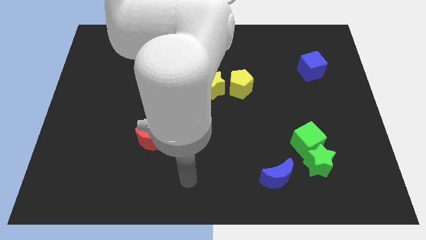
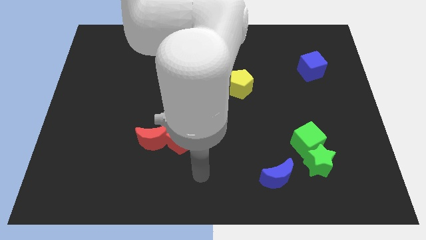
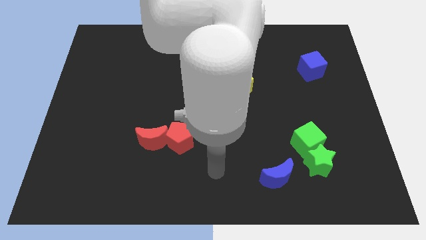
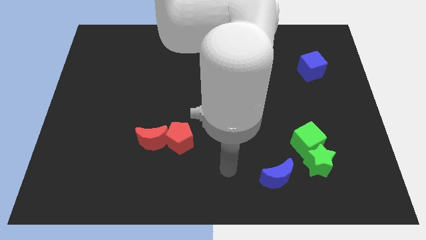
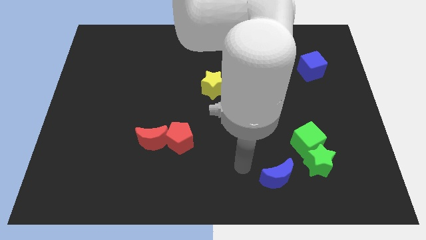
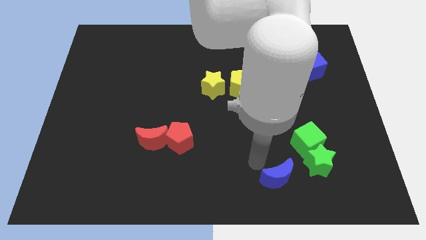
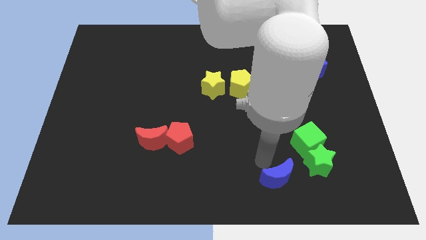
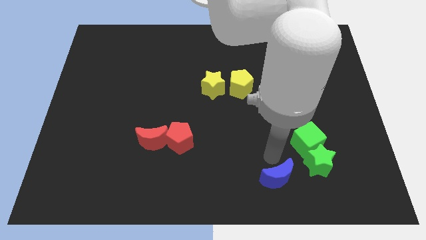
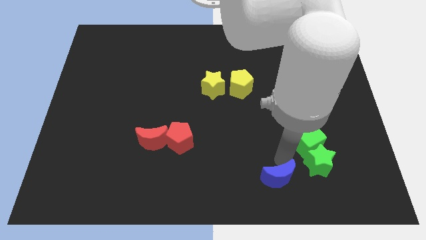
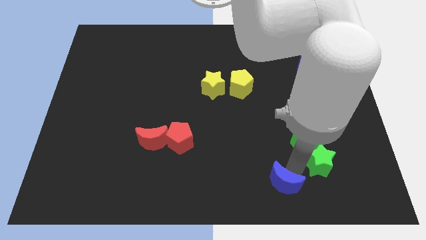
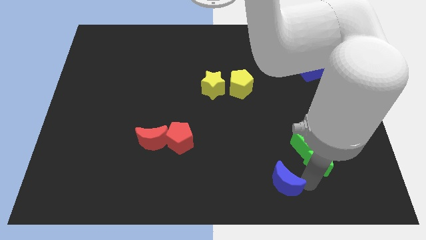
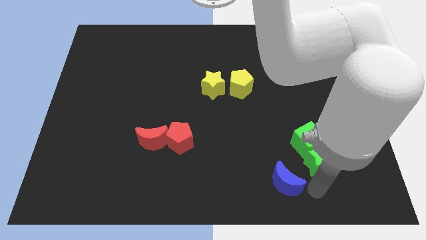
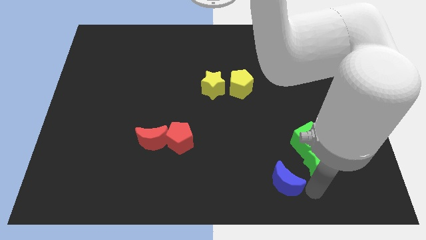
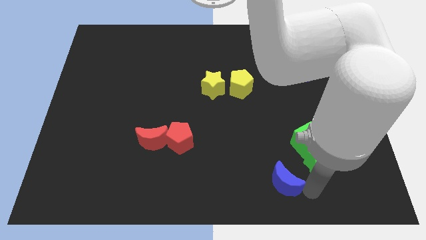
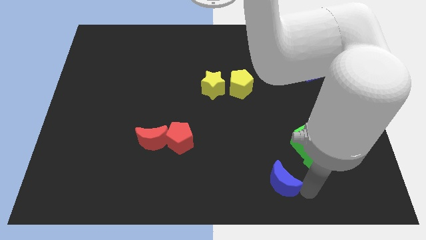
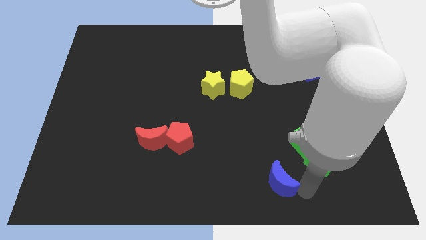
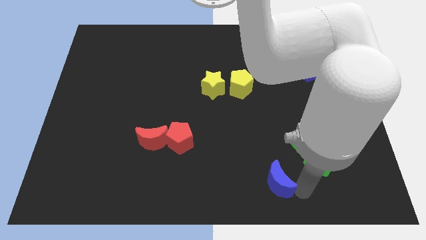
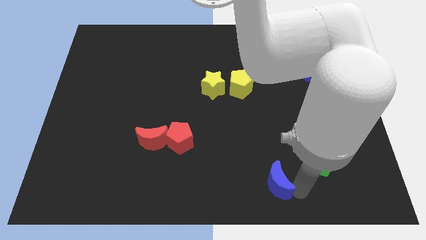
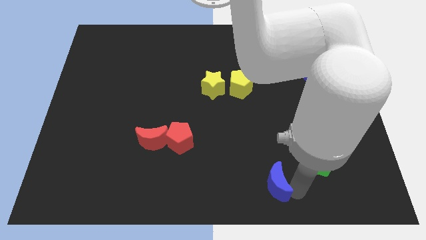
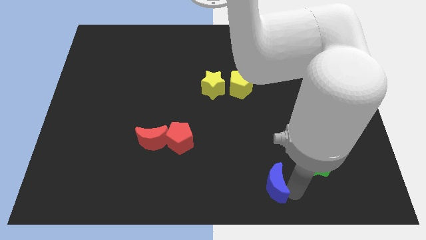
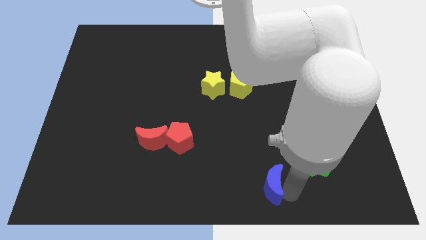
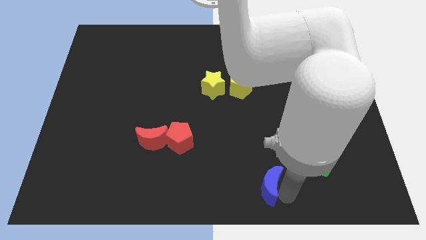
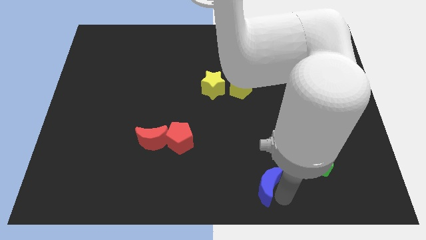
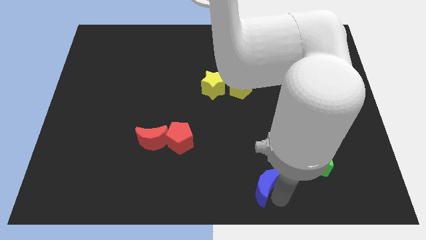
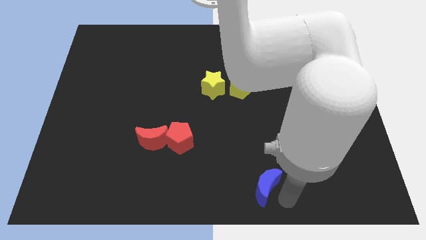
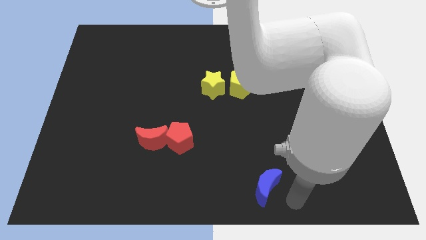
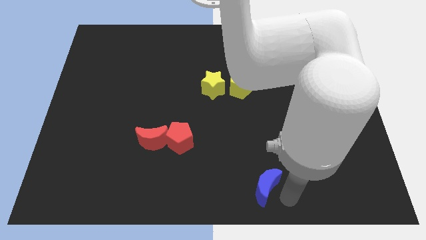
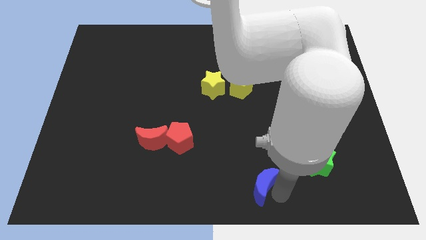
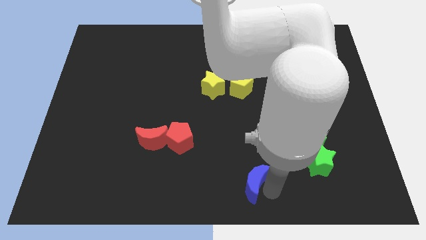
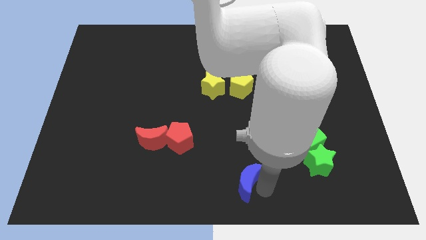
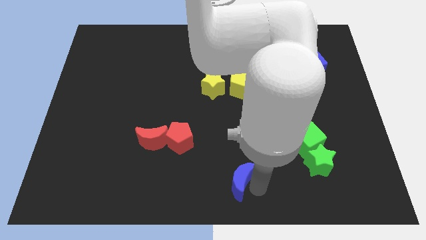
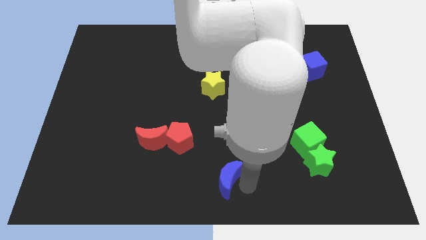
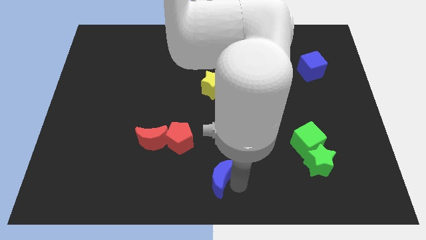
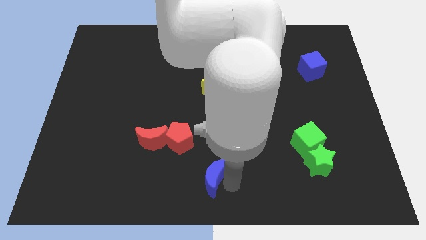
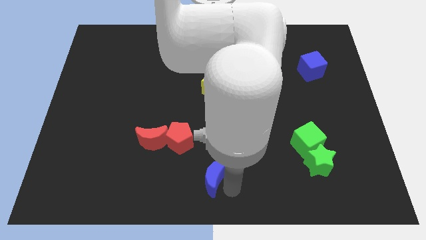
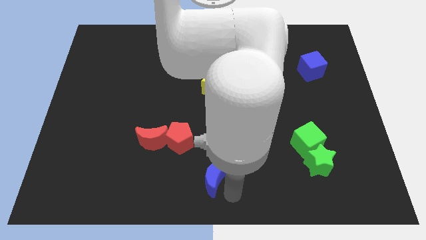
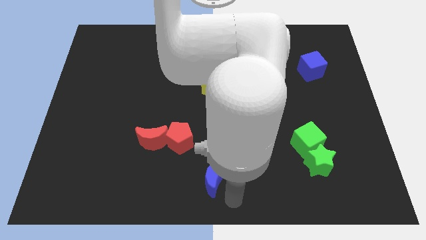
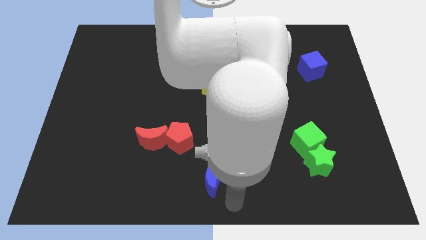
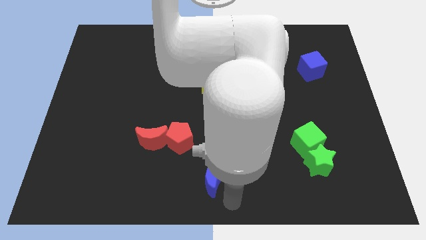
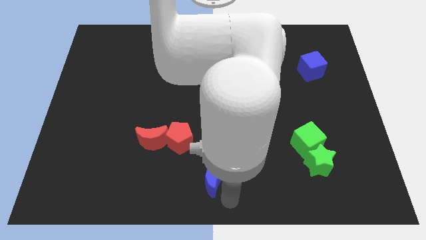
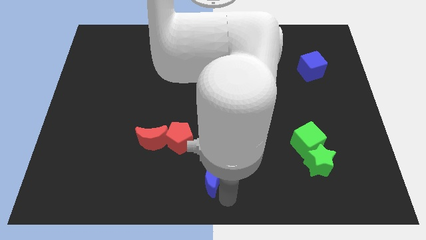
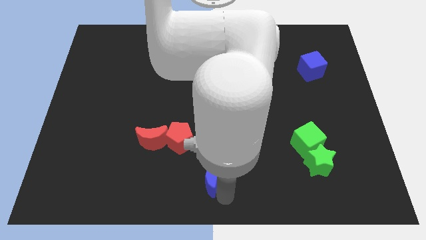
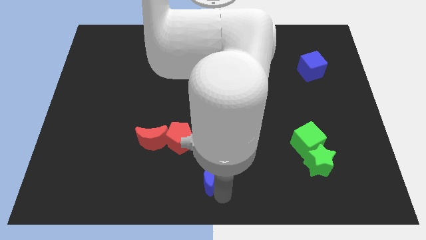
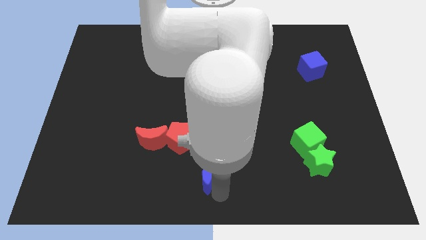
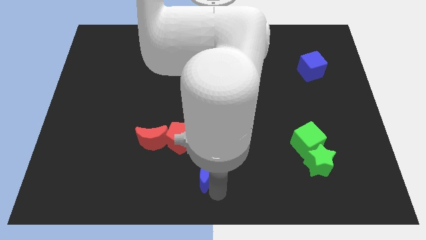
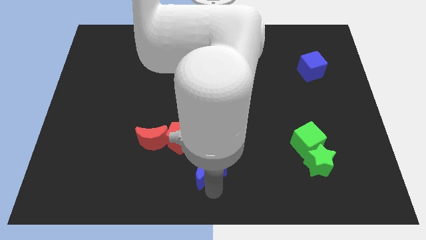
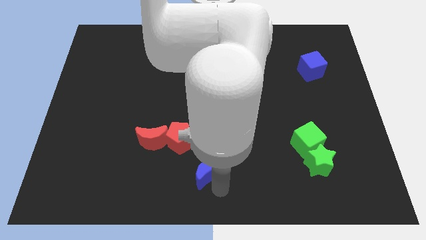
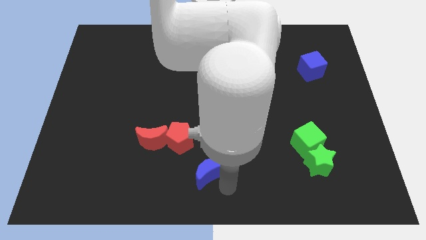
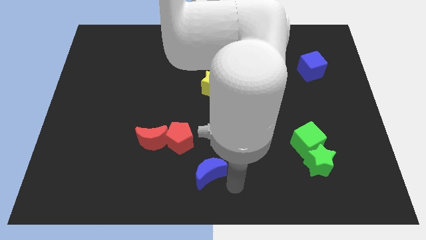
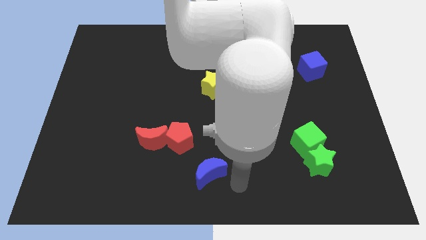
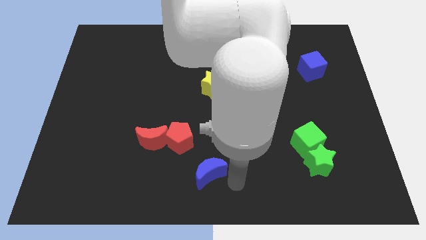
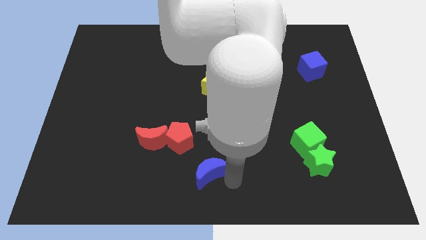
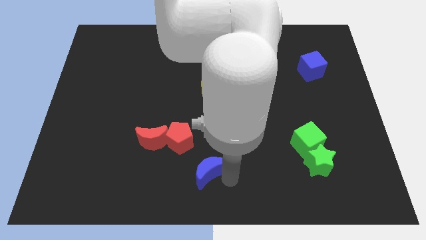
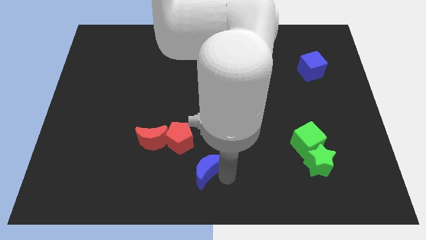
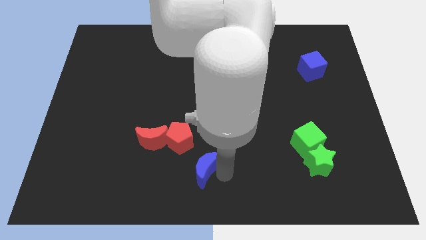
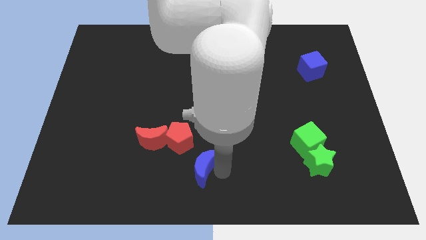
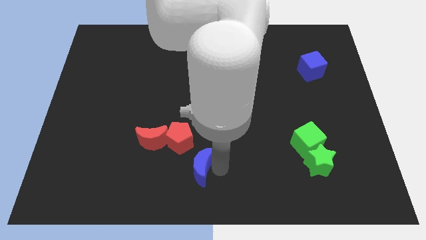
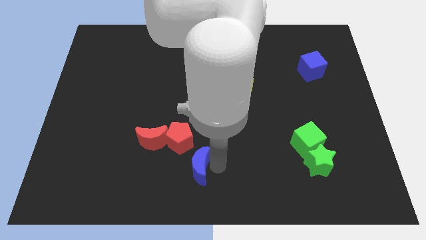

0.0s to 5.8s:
move the blue moon to the bottom right of the red moon

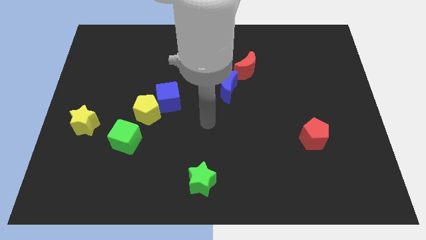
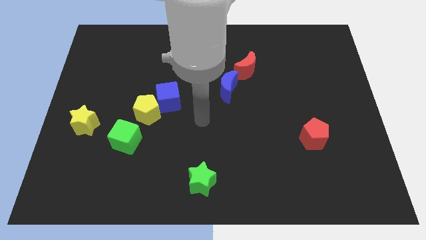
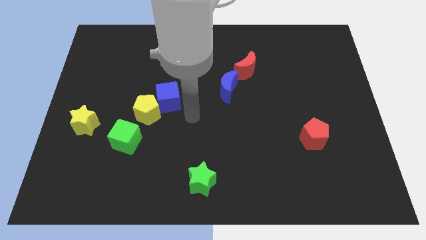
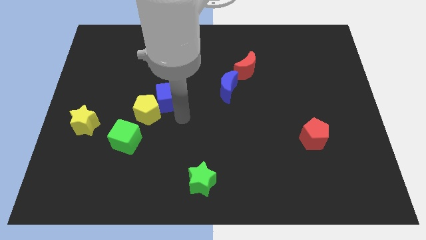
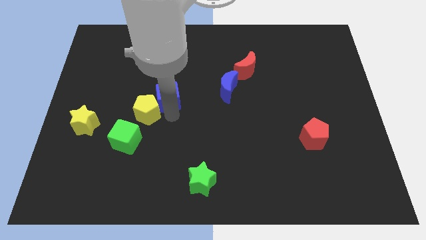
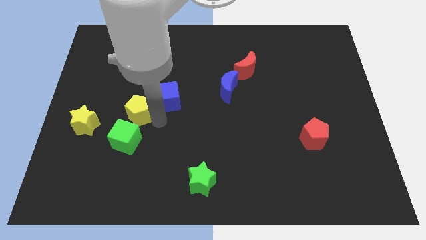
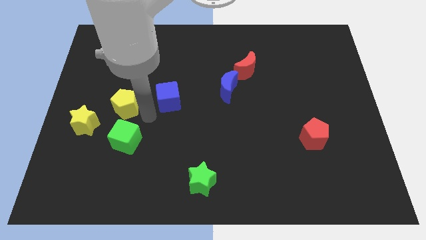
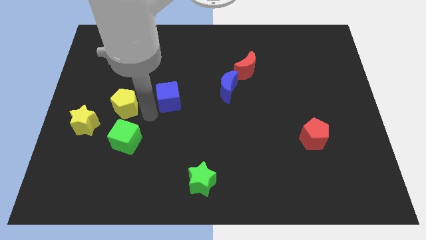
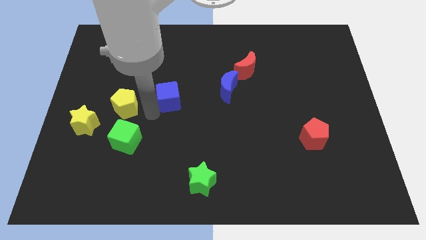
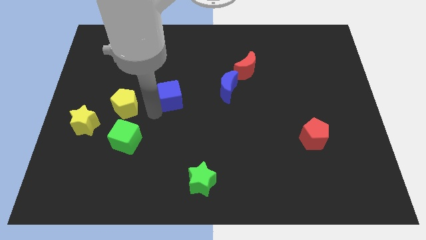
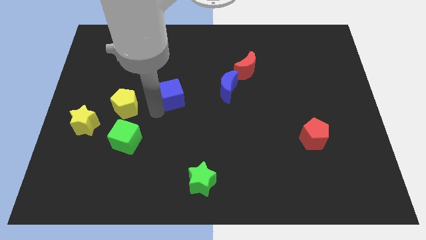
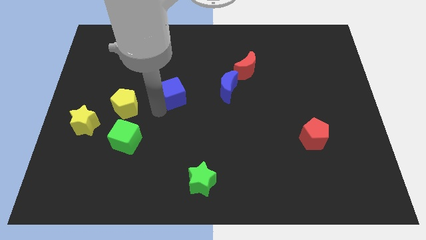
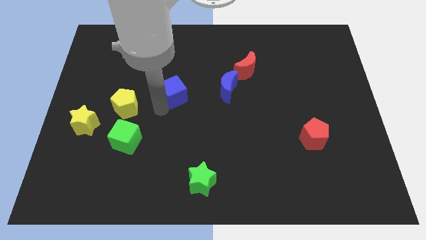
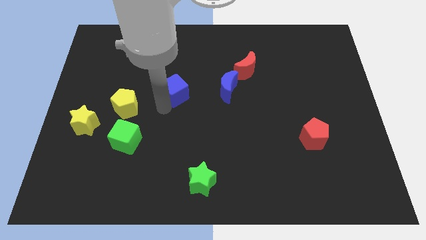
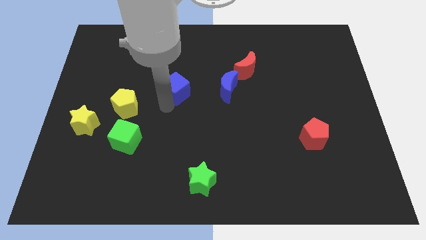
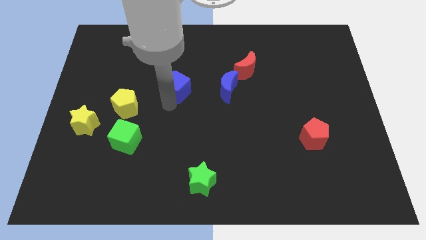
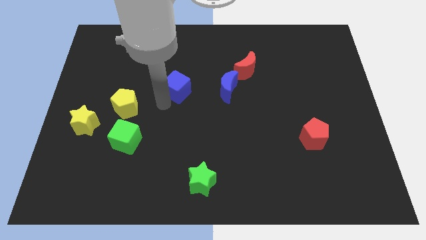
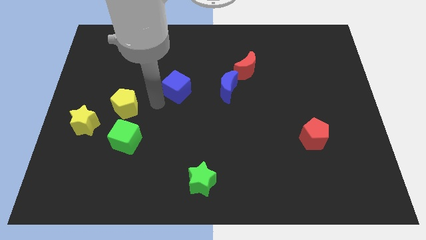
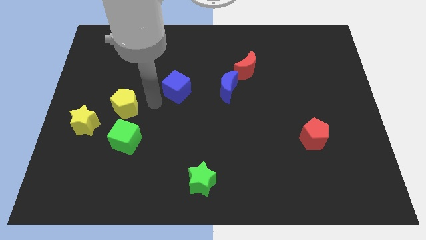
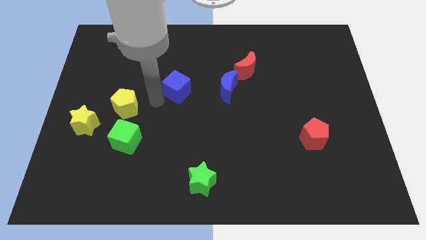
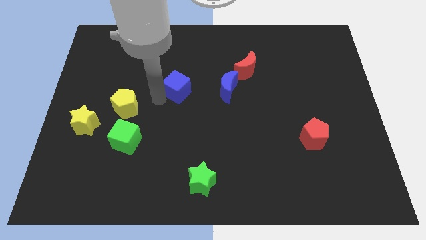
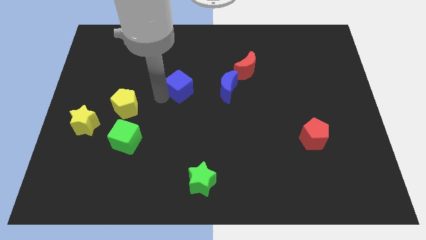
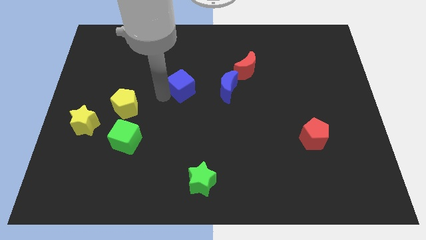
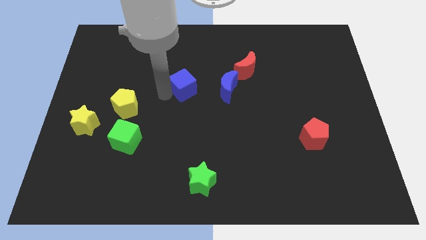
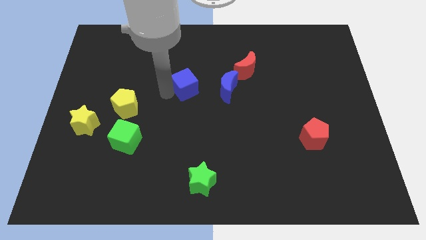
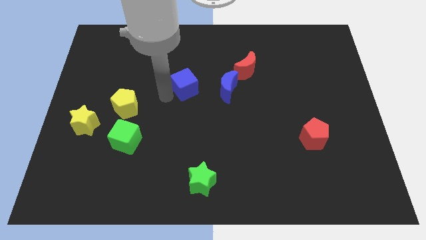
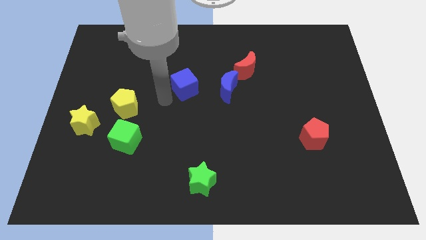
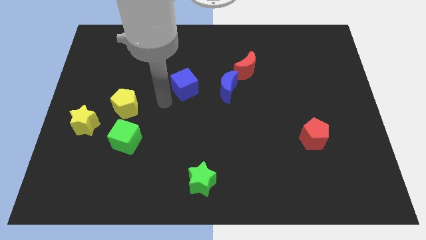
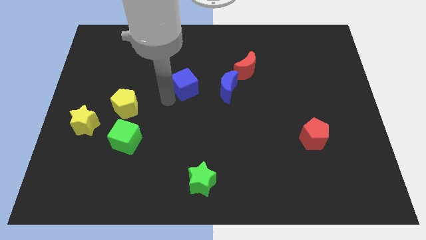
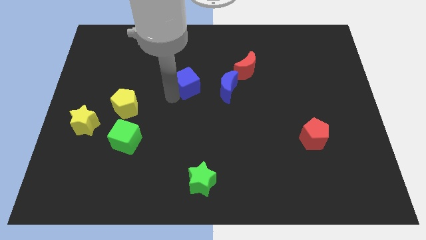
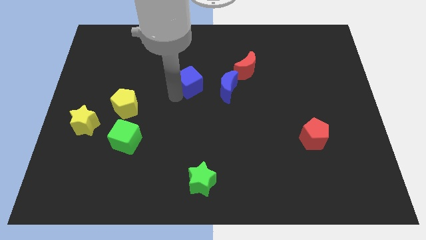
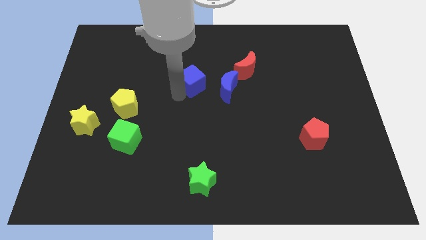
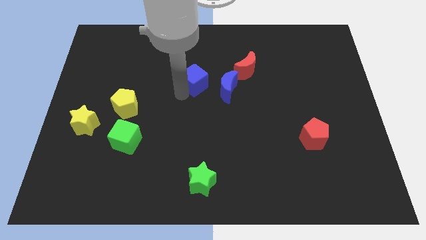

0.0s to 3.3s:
push the blue cube left of the red moon
